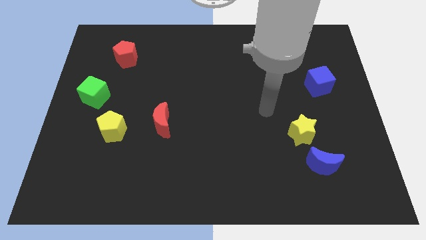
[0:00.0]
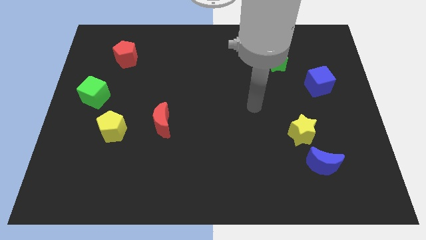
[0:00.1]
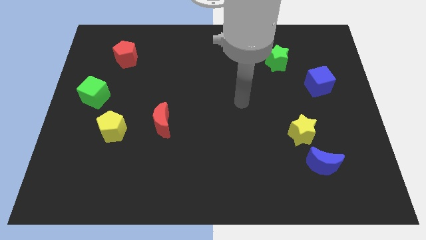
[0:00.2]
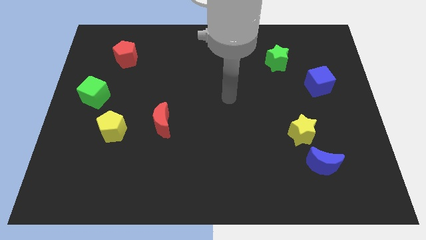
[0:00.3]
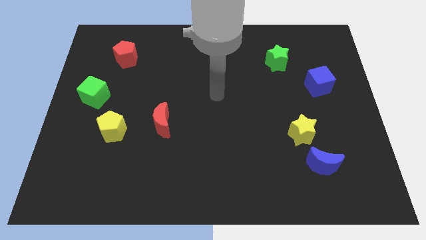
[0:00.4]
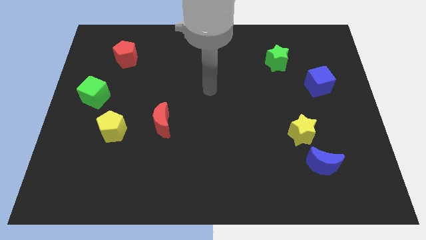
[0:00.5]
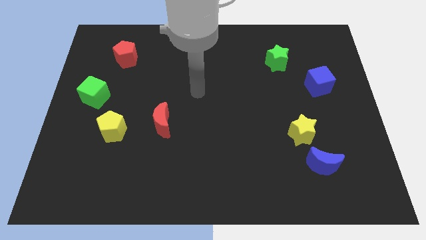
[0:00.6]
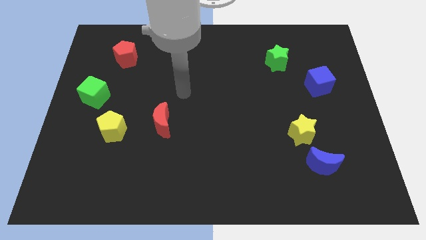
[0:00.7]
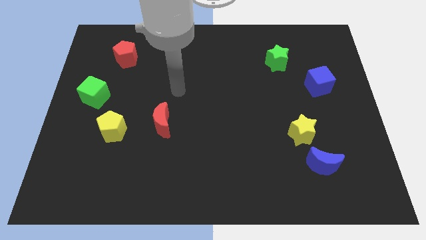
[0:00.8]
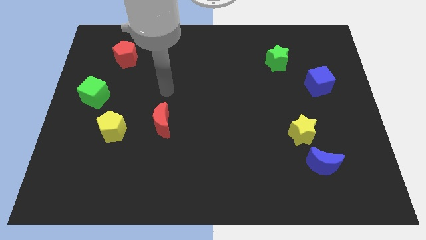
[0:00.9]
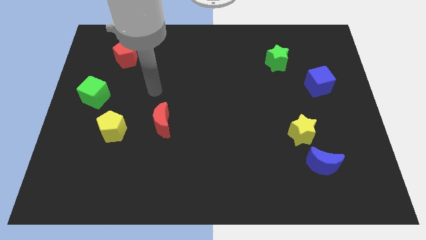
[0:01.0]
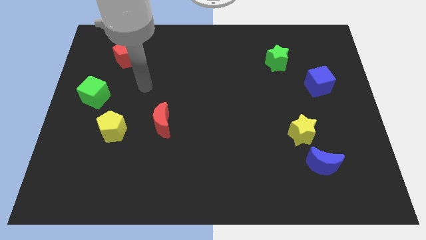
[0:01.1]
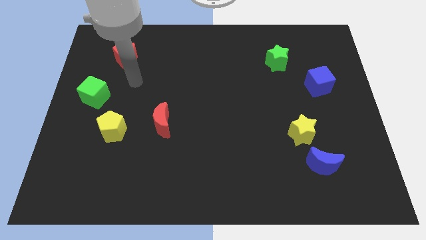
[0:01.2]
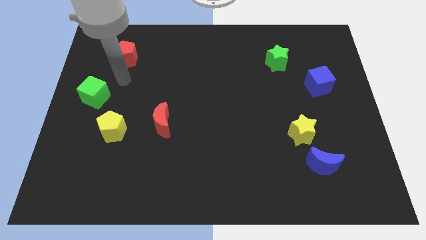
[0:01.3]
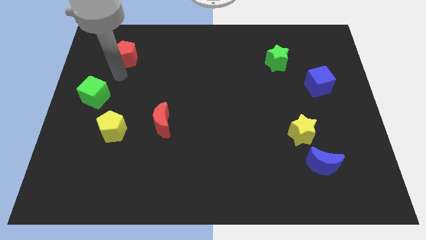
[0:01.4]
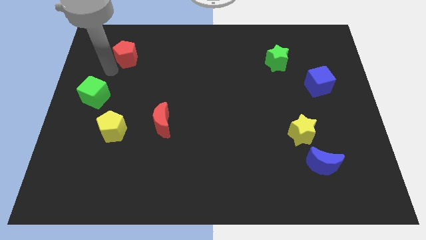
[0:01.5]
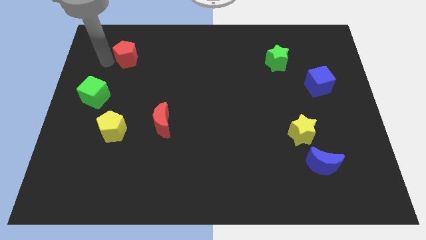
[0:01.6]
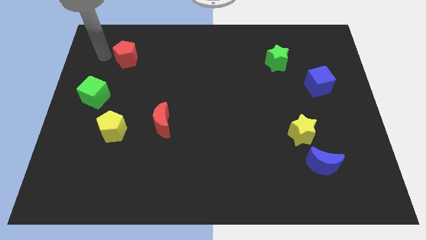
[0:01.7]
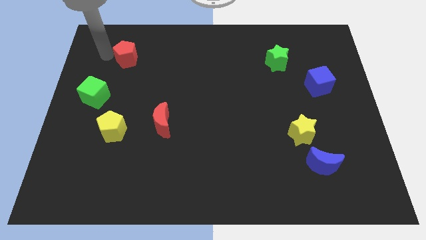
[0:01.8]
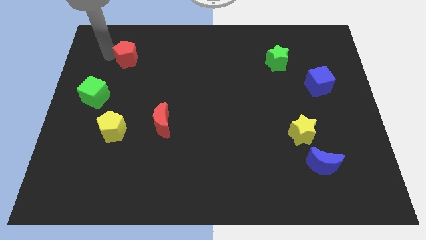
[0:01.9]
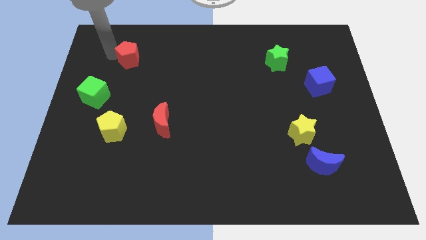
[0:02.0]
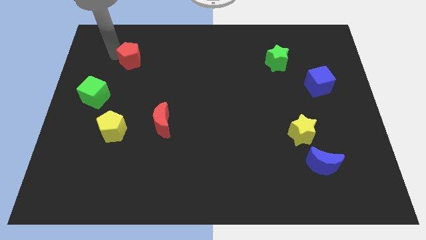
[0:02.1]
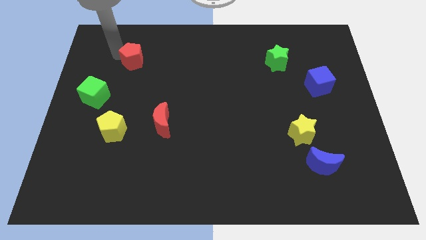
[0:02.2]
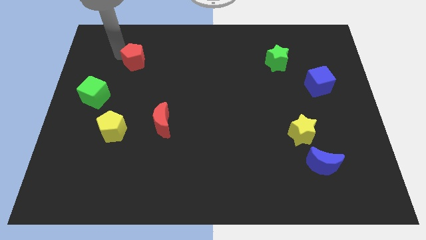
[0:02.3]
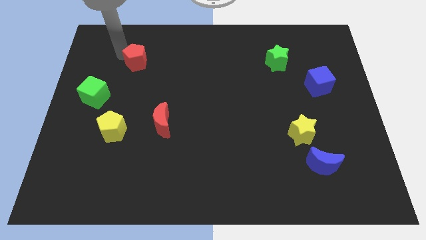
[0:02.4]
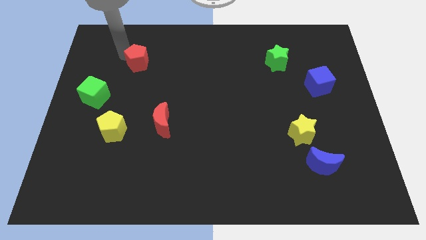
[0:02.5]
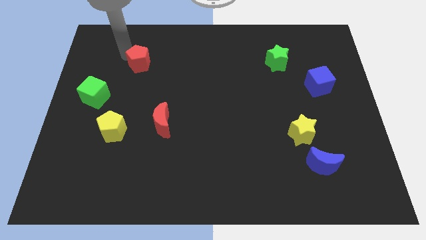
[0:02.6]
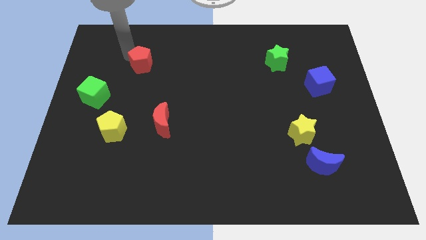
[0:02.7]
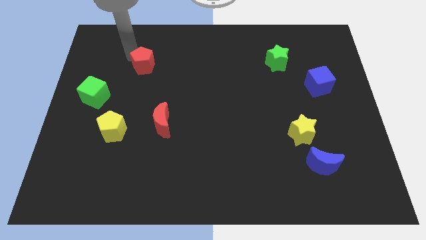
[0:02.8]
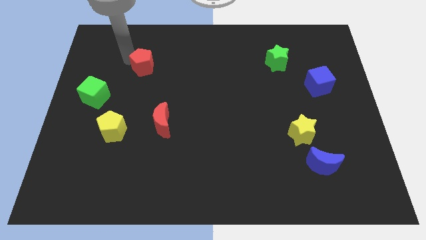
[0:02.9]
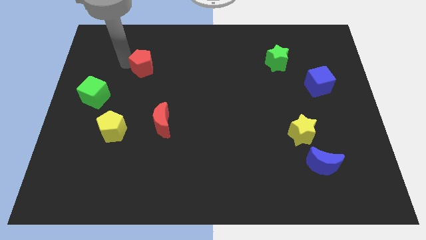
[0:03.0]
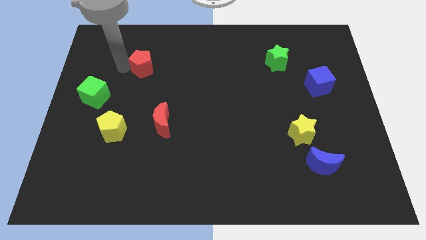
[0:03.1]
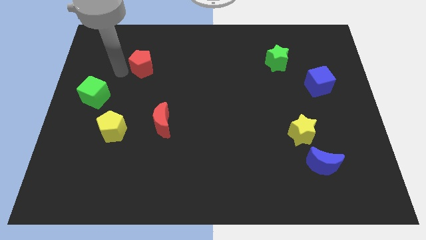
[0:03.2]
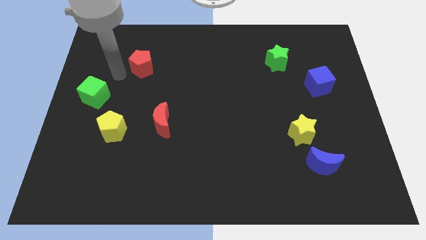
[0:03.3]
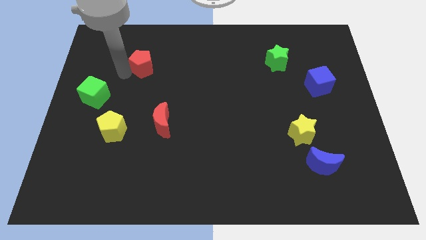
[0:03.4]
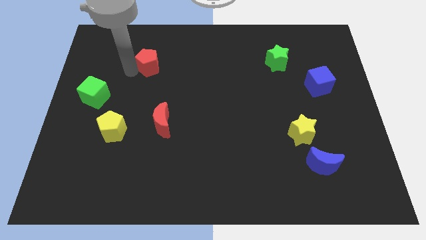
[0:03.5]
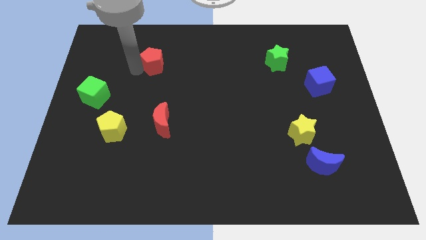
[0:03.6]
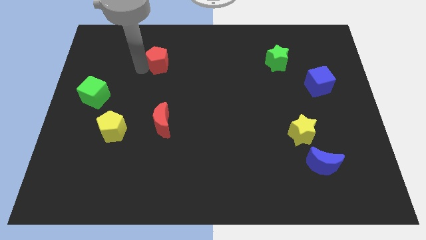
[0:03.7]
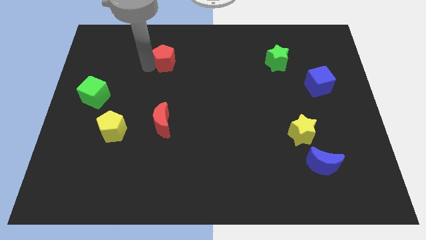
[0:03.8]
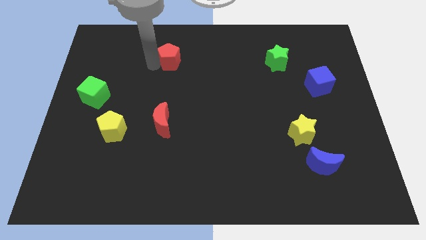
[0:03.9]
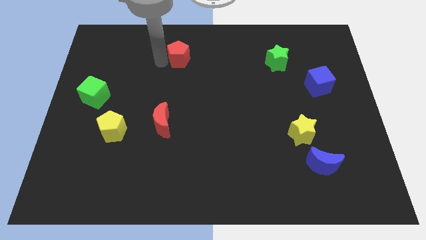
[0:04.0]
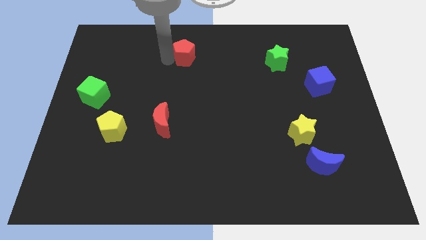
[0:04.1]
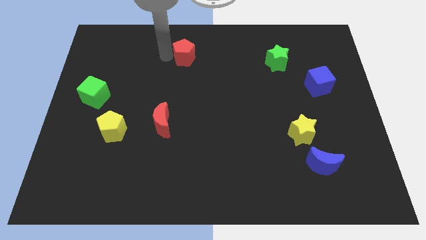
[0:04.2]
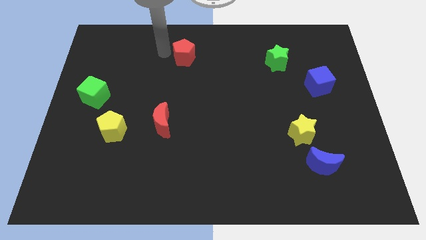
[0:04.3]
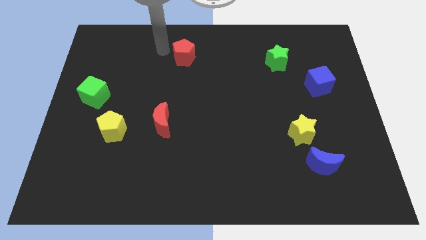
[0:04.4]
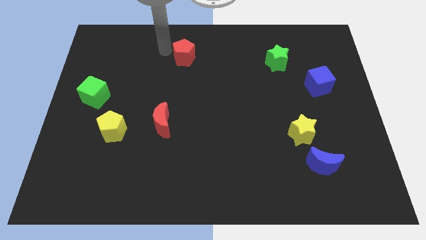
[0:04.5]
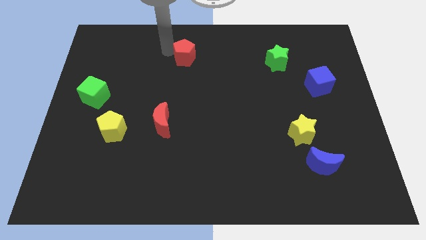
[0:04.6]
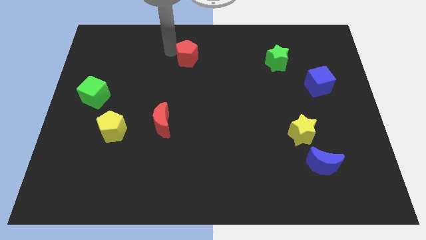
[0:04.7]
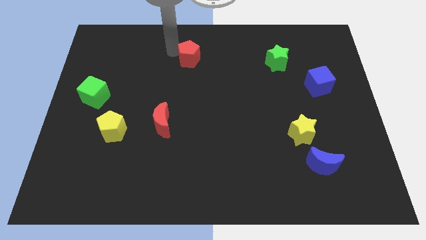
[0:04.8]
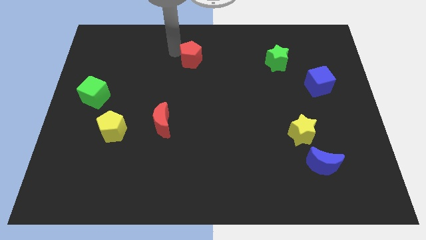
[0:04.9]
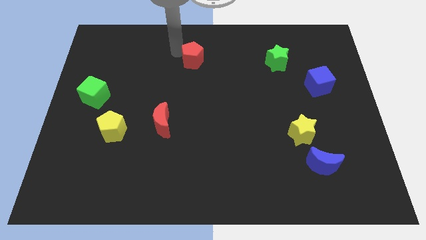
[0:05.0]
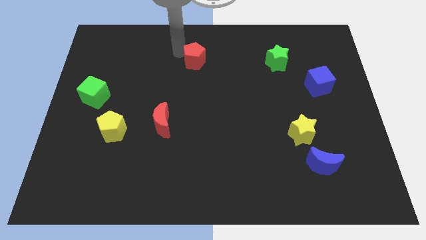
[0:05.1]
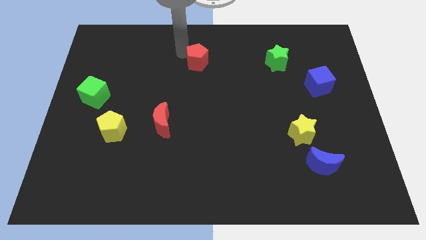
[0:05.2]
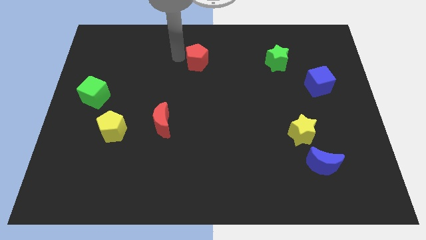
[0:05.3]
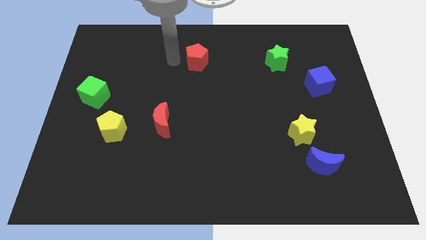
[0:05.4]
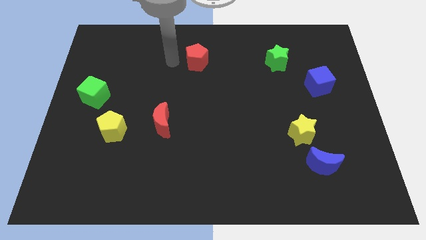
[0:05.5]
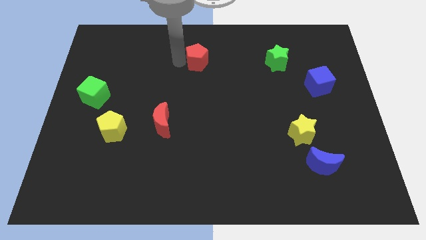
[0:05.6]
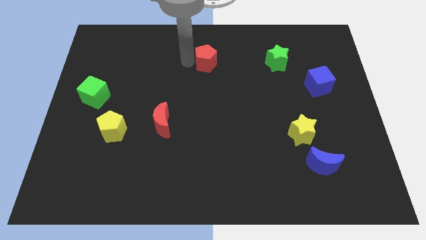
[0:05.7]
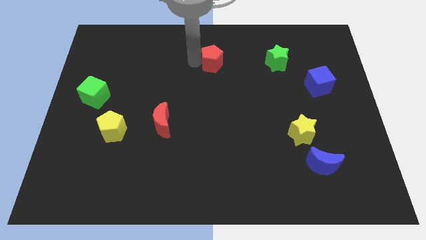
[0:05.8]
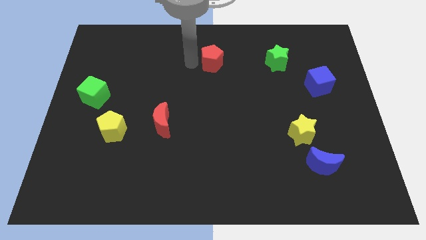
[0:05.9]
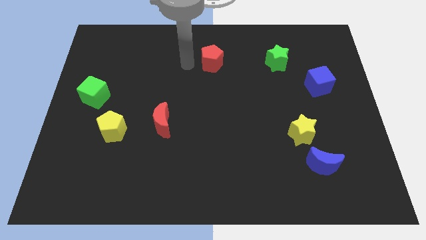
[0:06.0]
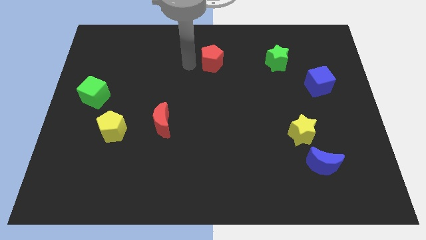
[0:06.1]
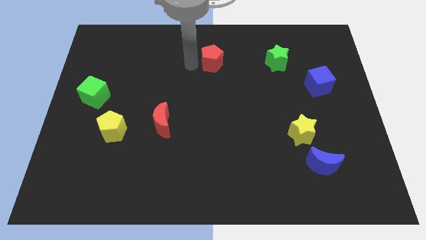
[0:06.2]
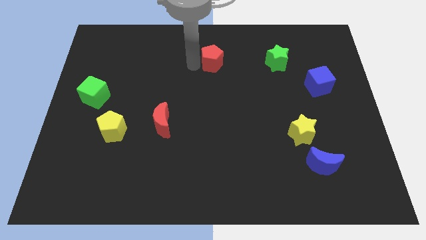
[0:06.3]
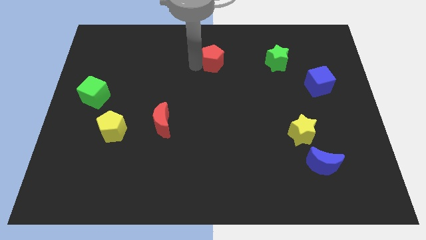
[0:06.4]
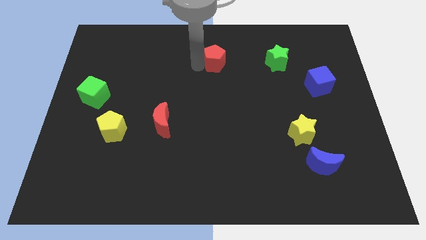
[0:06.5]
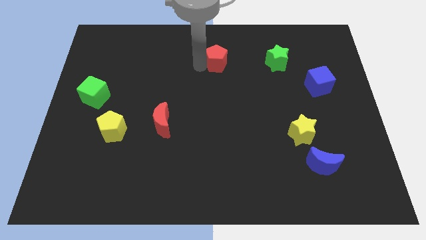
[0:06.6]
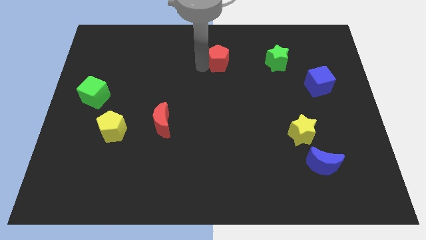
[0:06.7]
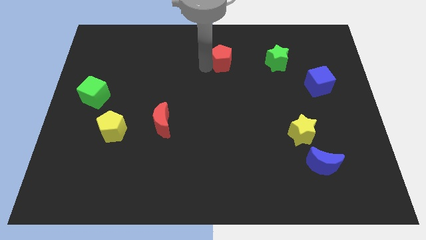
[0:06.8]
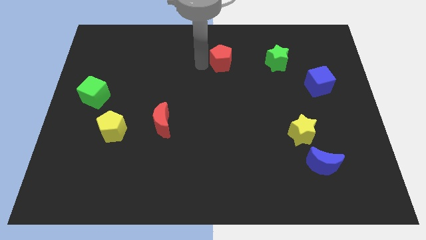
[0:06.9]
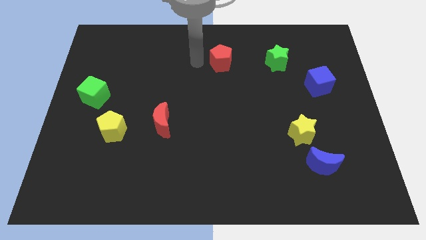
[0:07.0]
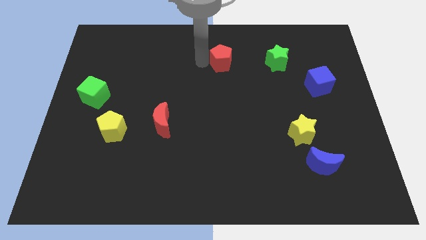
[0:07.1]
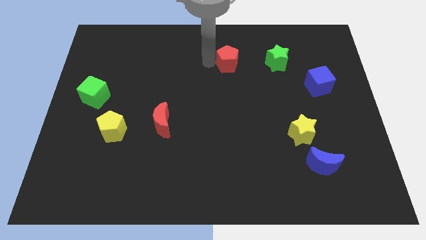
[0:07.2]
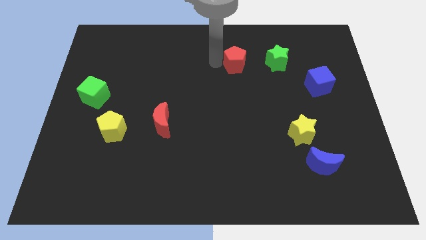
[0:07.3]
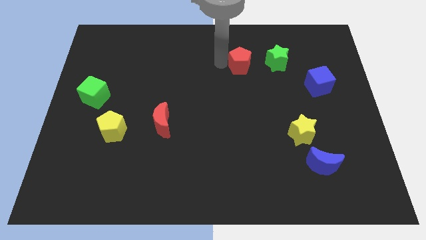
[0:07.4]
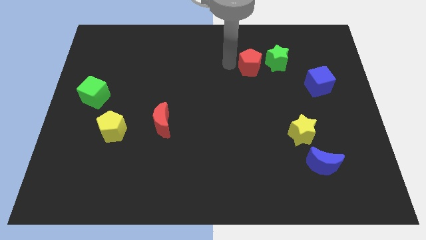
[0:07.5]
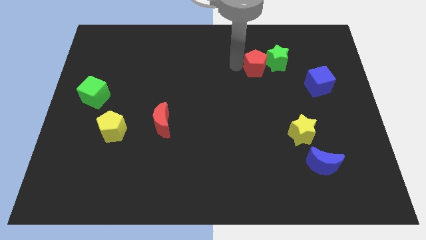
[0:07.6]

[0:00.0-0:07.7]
put the red pentagon towards the green star
